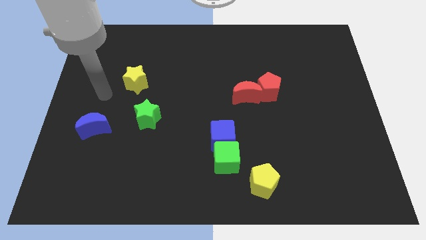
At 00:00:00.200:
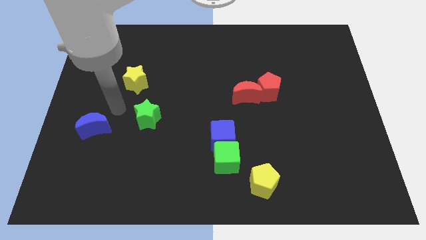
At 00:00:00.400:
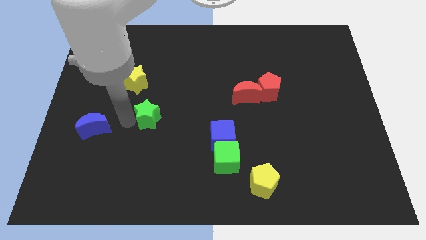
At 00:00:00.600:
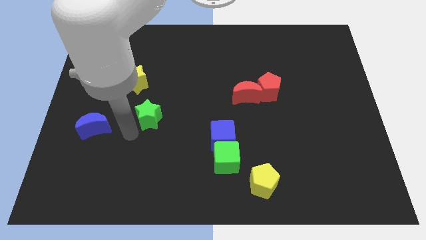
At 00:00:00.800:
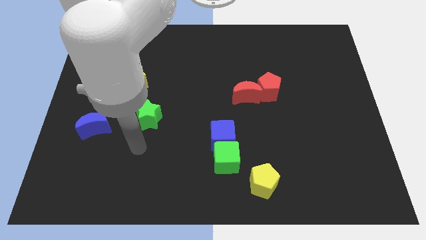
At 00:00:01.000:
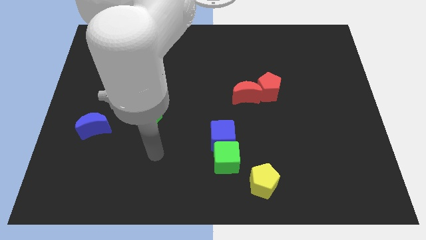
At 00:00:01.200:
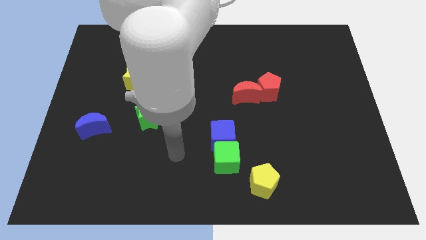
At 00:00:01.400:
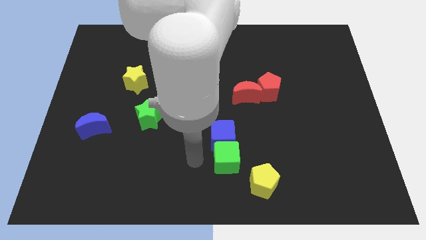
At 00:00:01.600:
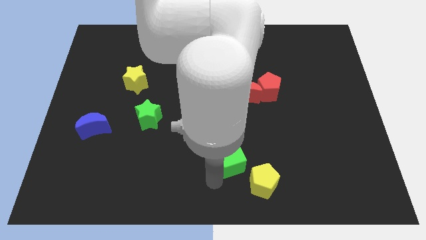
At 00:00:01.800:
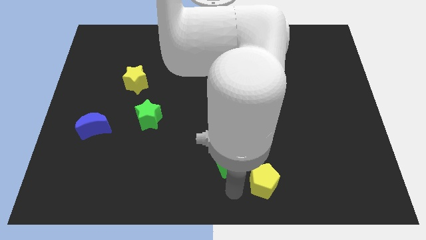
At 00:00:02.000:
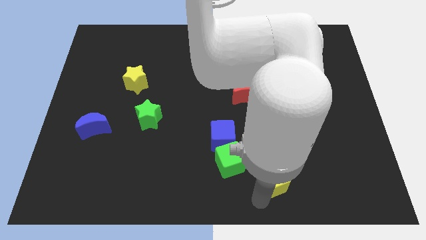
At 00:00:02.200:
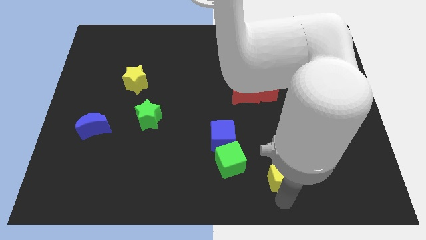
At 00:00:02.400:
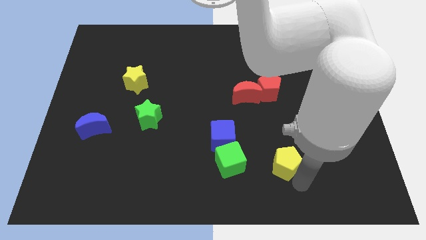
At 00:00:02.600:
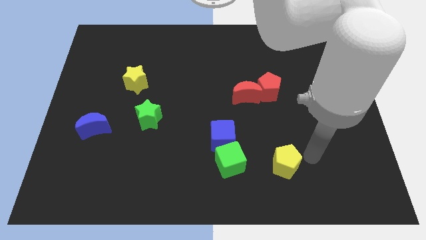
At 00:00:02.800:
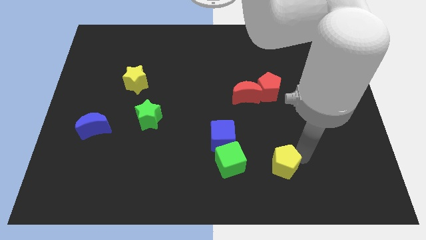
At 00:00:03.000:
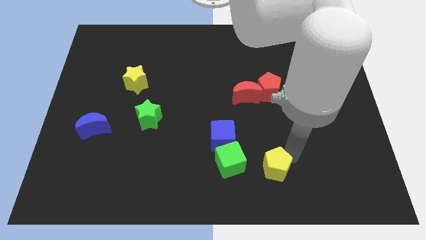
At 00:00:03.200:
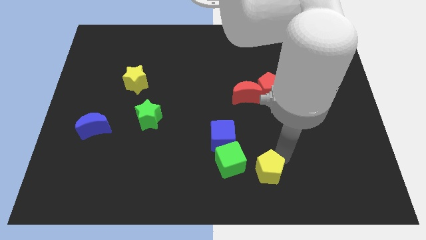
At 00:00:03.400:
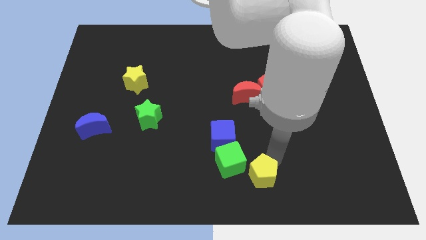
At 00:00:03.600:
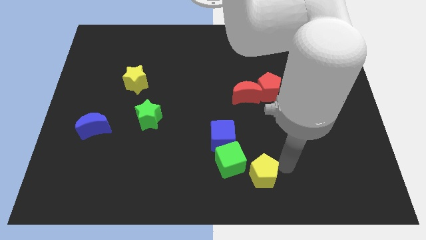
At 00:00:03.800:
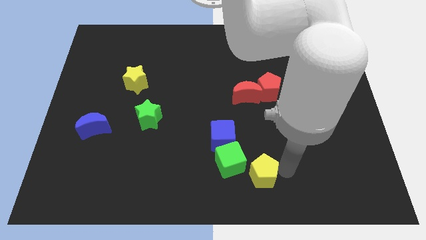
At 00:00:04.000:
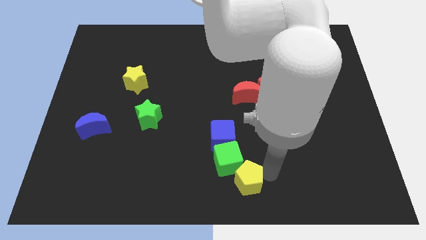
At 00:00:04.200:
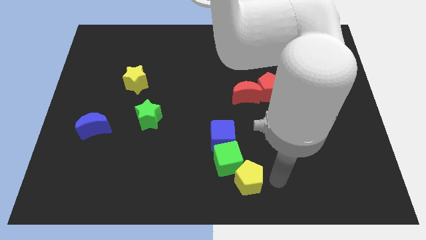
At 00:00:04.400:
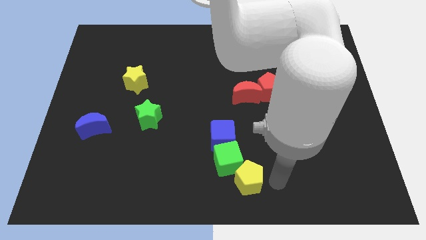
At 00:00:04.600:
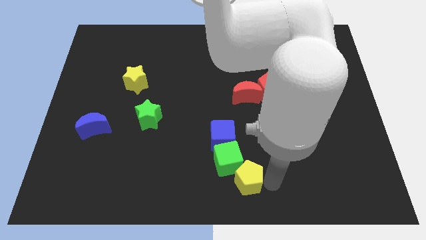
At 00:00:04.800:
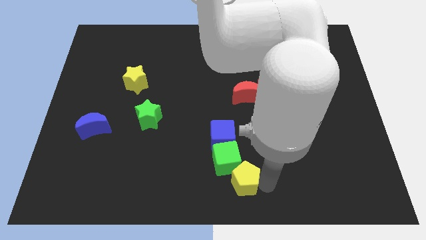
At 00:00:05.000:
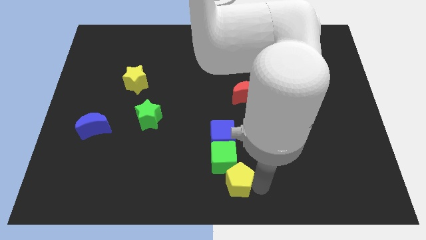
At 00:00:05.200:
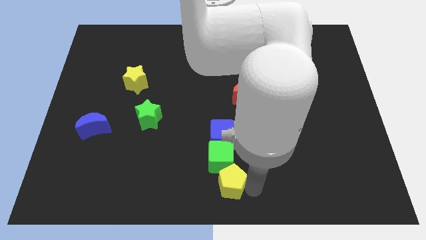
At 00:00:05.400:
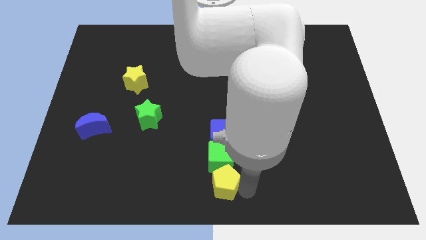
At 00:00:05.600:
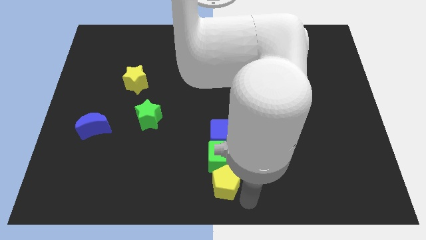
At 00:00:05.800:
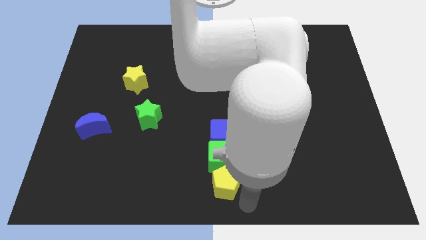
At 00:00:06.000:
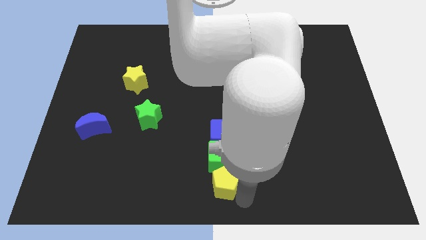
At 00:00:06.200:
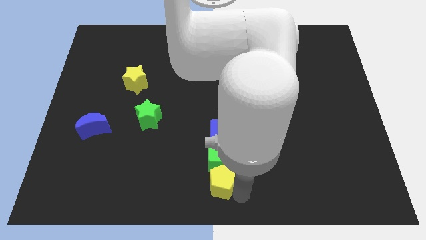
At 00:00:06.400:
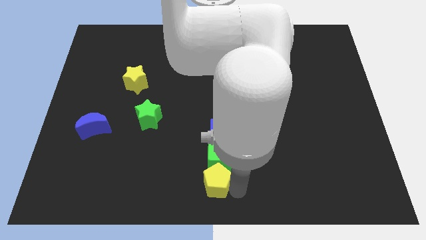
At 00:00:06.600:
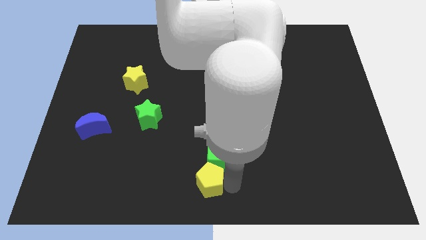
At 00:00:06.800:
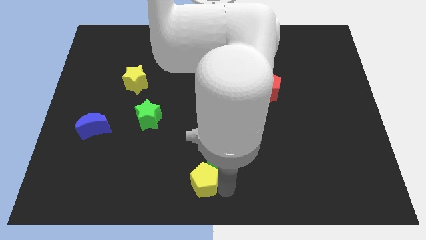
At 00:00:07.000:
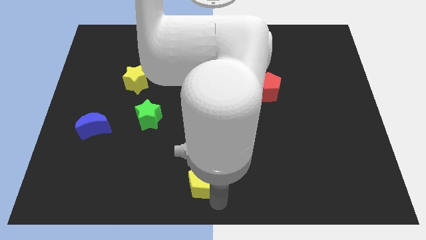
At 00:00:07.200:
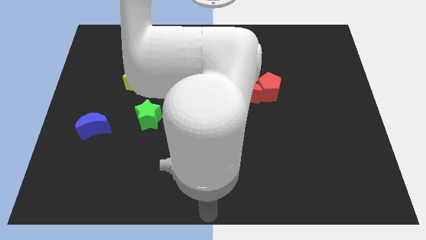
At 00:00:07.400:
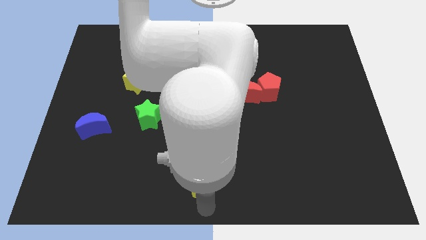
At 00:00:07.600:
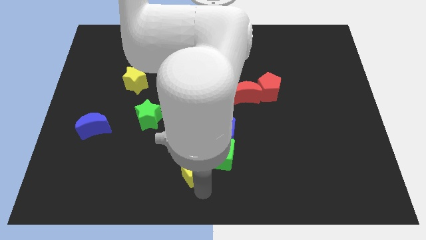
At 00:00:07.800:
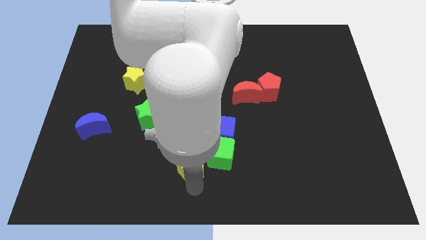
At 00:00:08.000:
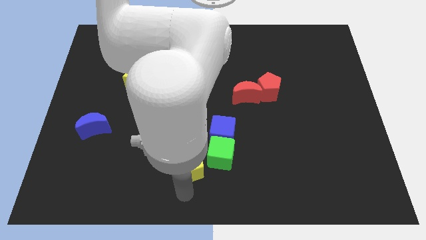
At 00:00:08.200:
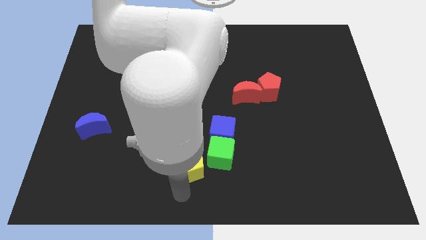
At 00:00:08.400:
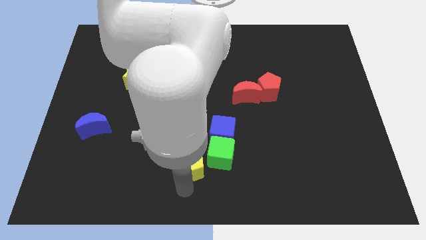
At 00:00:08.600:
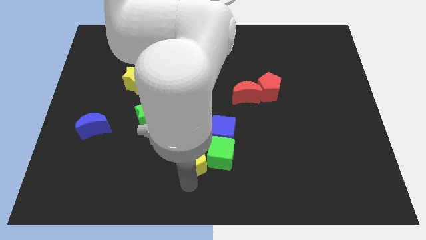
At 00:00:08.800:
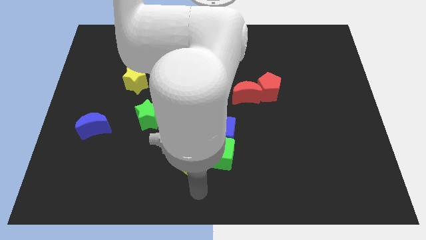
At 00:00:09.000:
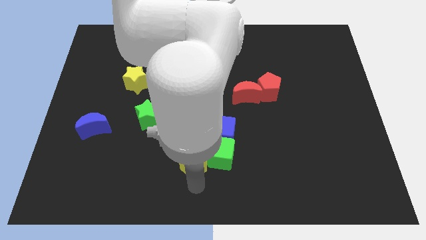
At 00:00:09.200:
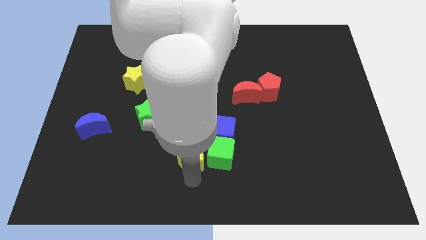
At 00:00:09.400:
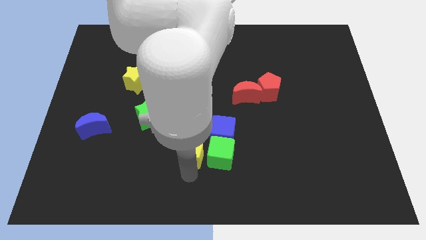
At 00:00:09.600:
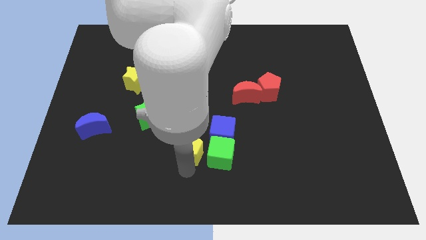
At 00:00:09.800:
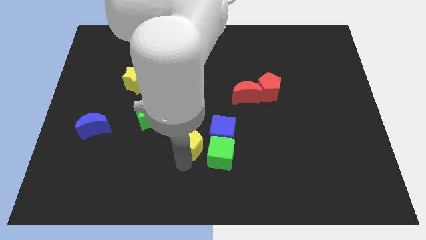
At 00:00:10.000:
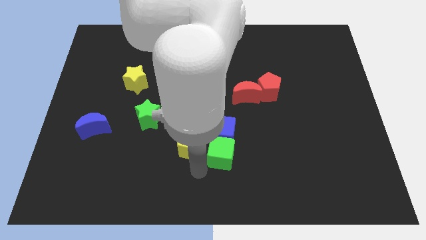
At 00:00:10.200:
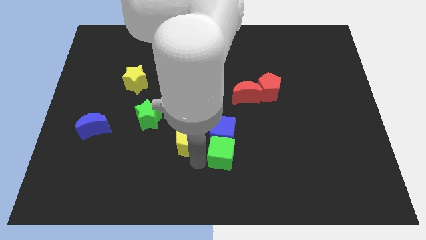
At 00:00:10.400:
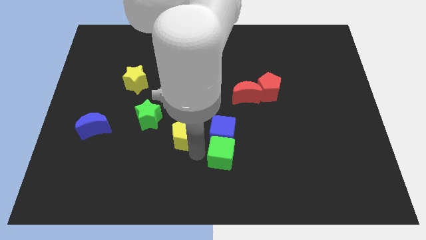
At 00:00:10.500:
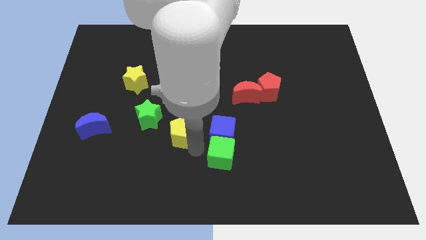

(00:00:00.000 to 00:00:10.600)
push the yellow pentagon diagonally upwards and to the left

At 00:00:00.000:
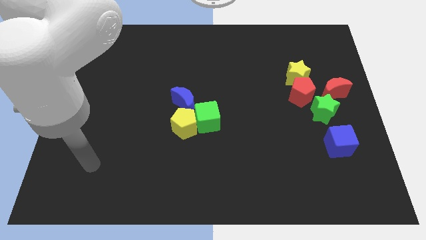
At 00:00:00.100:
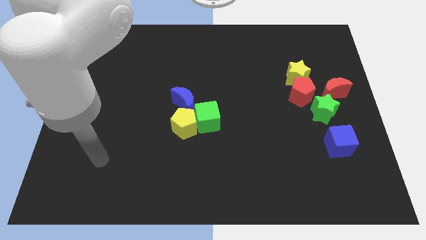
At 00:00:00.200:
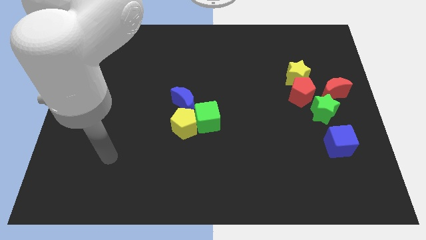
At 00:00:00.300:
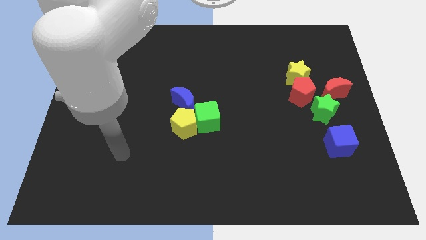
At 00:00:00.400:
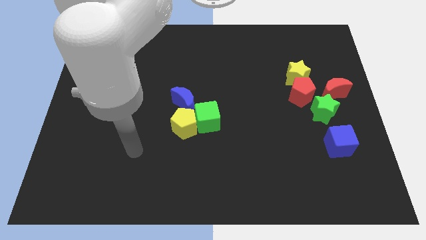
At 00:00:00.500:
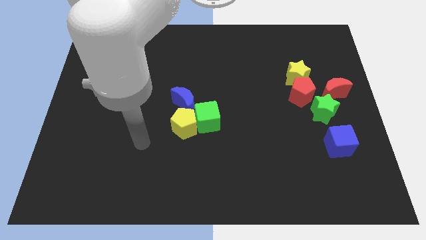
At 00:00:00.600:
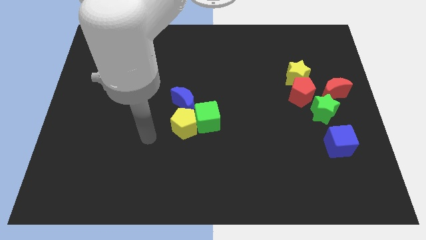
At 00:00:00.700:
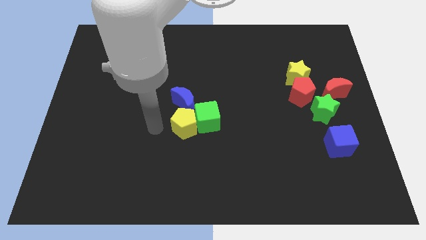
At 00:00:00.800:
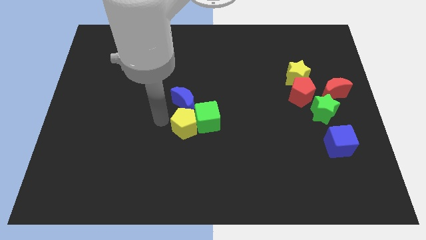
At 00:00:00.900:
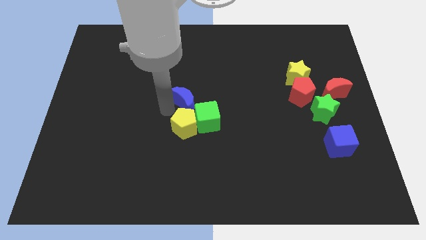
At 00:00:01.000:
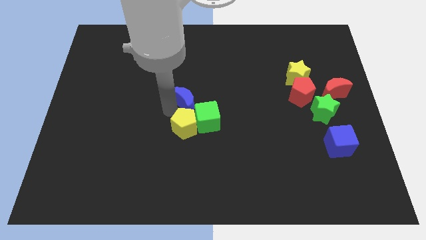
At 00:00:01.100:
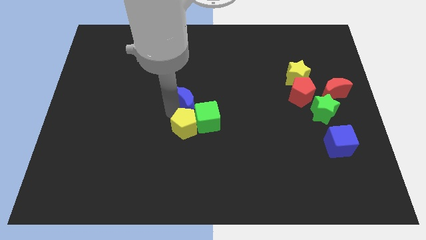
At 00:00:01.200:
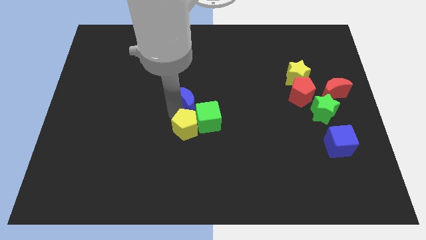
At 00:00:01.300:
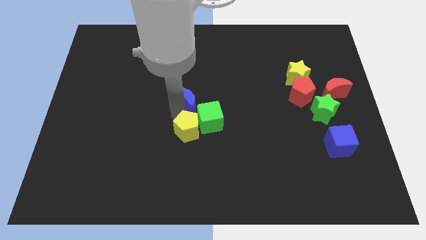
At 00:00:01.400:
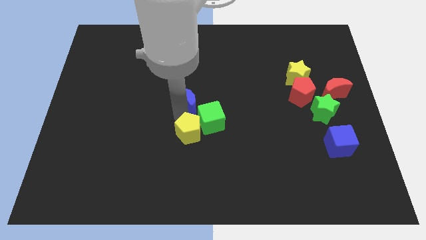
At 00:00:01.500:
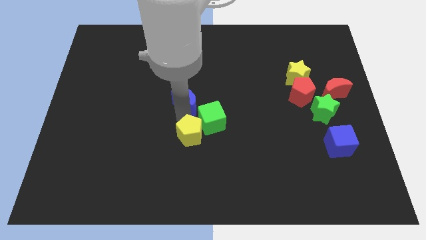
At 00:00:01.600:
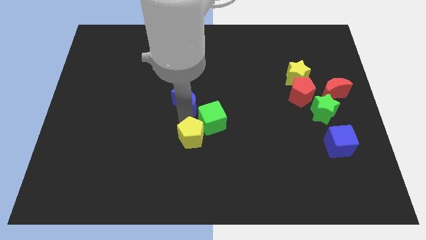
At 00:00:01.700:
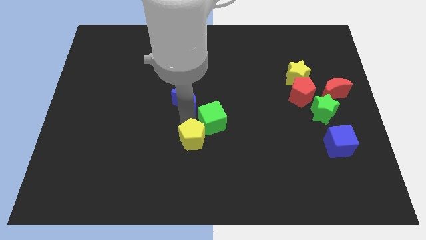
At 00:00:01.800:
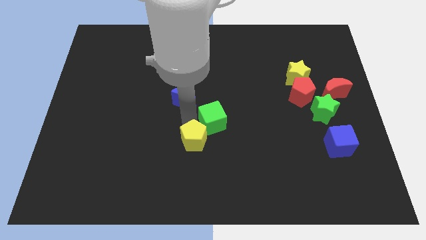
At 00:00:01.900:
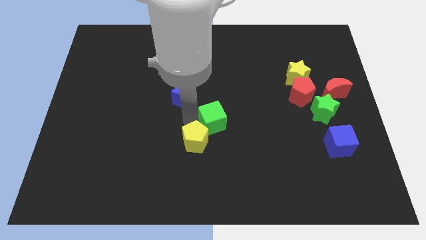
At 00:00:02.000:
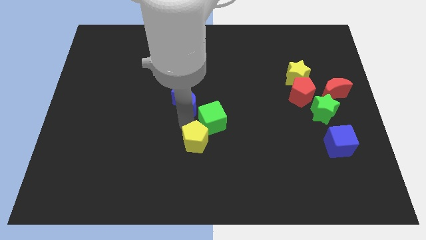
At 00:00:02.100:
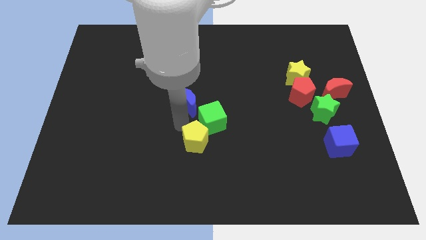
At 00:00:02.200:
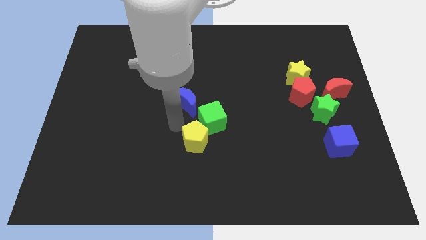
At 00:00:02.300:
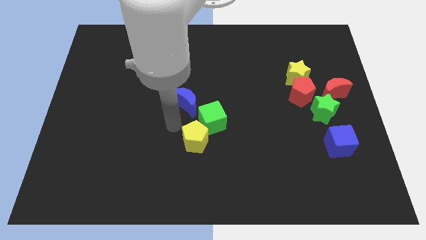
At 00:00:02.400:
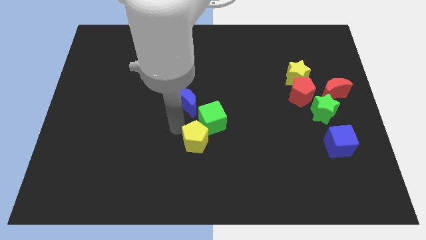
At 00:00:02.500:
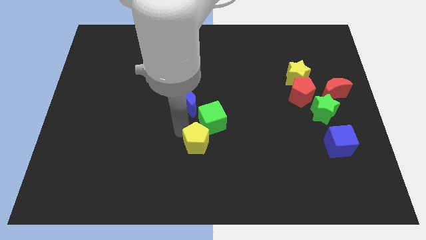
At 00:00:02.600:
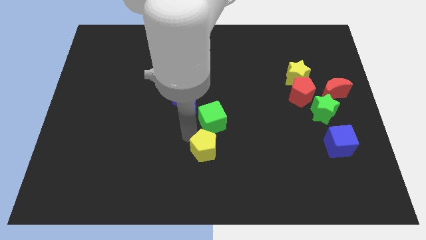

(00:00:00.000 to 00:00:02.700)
slightly move the yellow pentagon diagonally downwards and right
